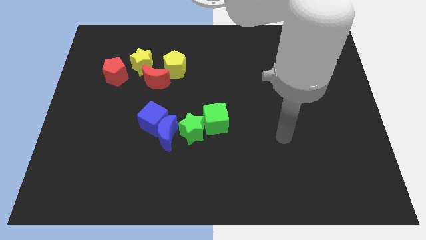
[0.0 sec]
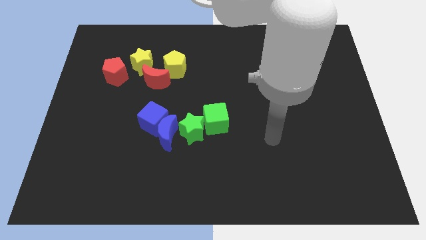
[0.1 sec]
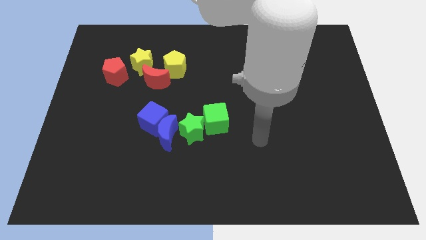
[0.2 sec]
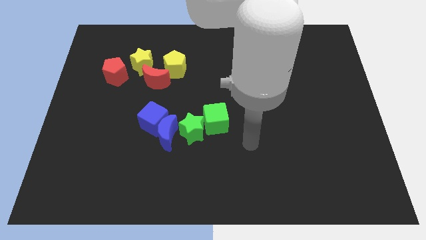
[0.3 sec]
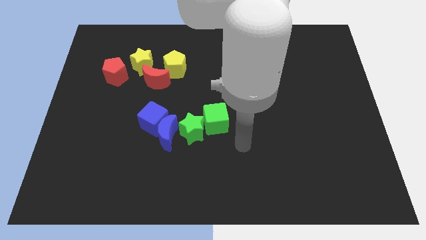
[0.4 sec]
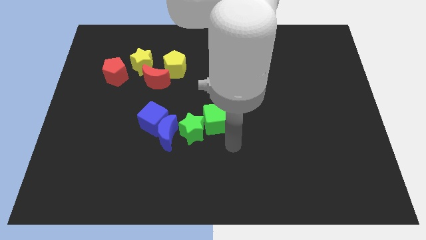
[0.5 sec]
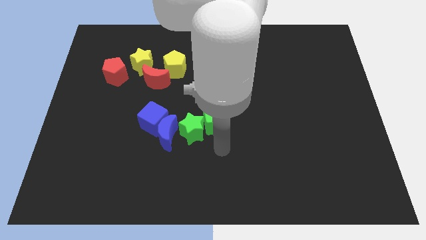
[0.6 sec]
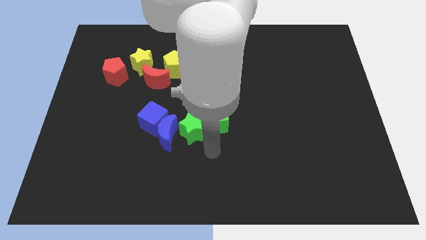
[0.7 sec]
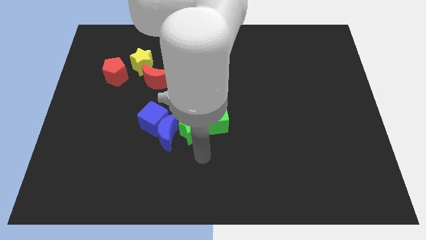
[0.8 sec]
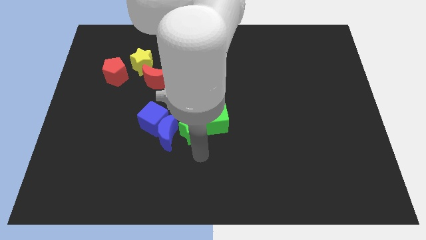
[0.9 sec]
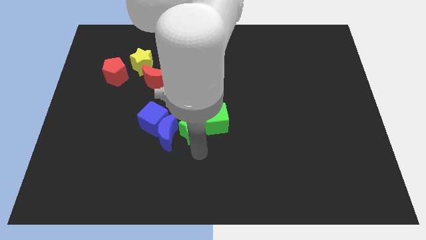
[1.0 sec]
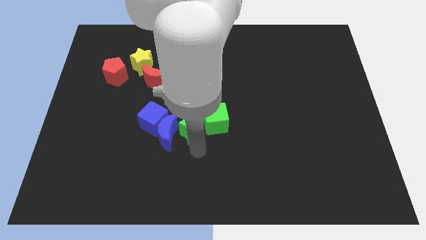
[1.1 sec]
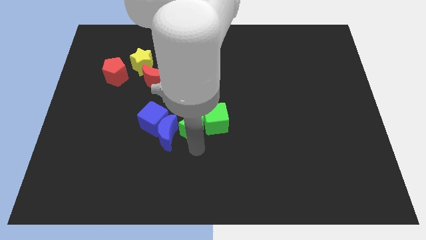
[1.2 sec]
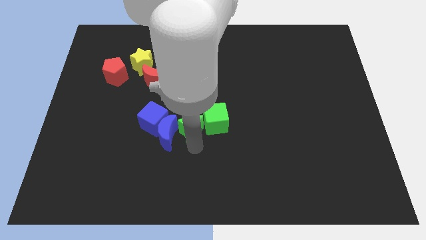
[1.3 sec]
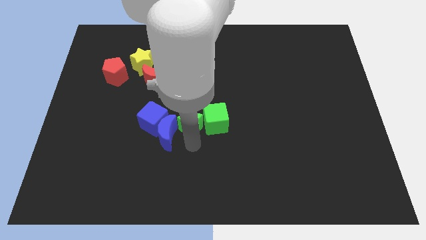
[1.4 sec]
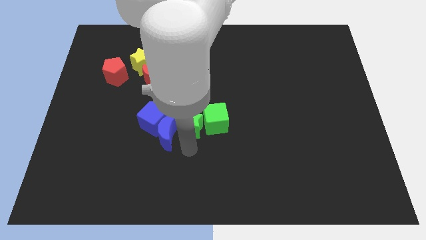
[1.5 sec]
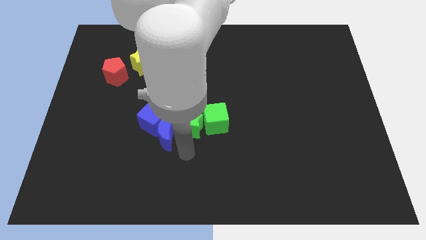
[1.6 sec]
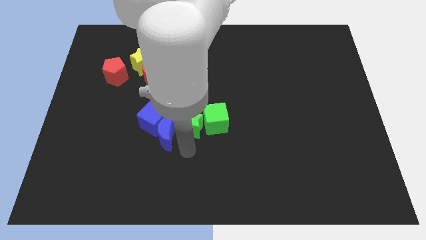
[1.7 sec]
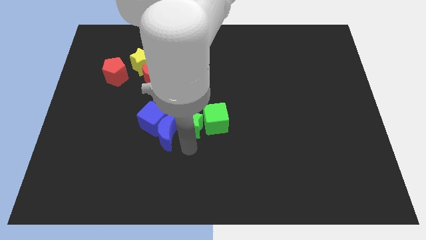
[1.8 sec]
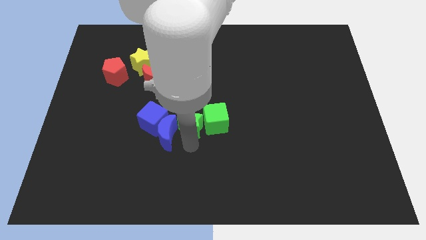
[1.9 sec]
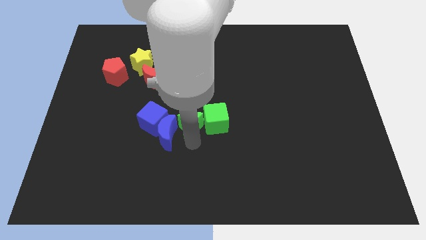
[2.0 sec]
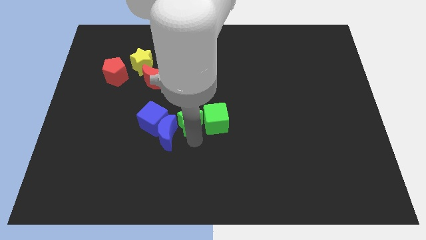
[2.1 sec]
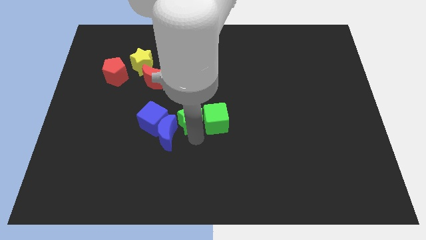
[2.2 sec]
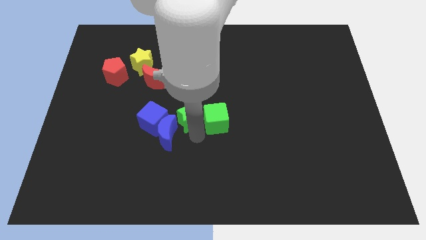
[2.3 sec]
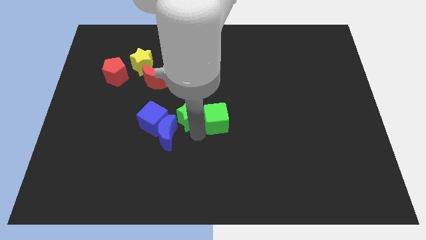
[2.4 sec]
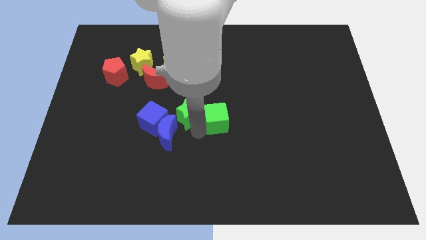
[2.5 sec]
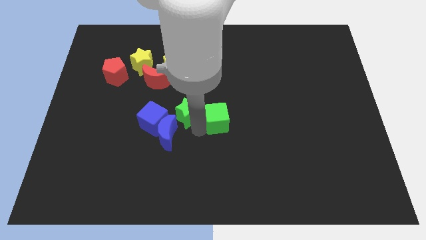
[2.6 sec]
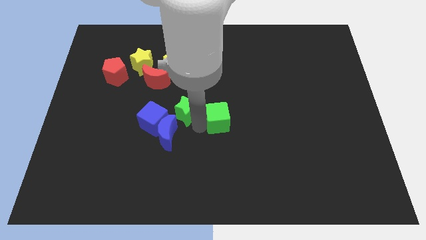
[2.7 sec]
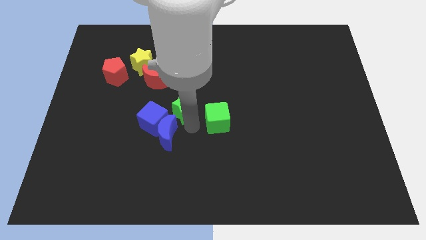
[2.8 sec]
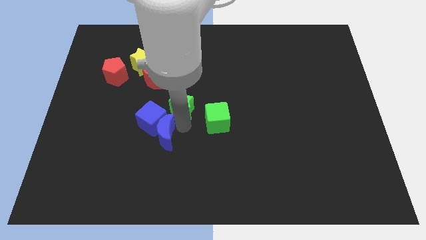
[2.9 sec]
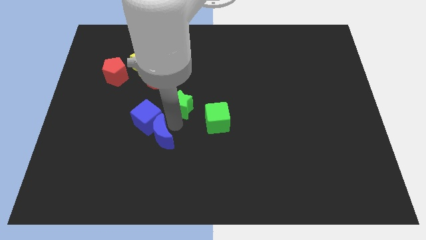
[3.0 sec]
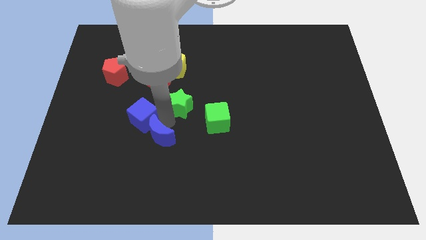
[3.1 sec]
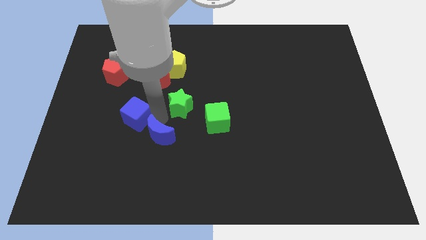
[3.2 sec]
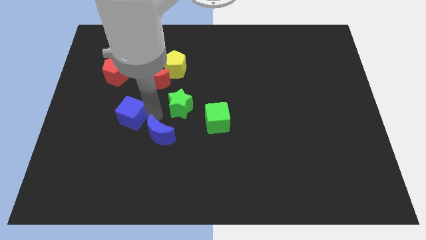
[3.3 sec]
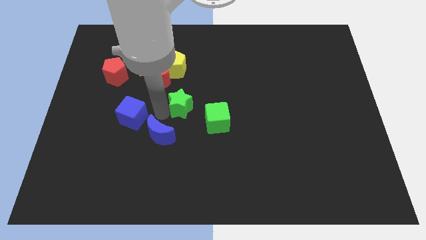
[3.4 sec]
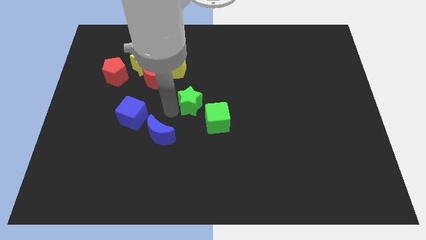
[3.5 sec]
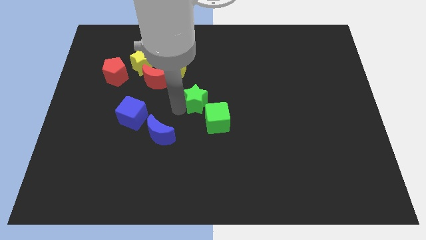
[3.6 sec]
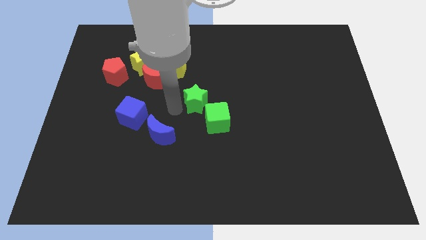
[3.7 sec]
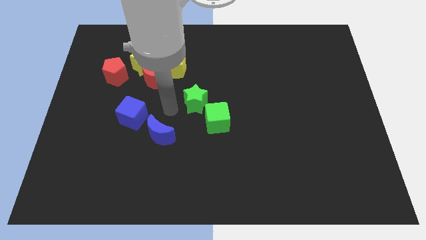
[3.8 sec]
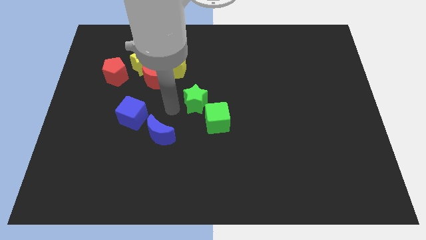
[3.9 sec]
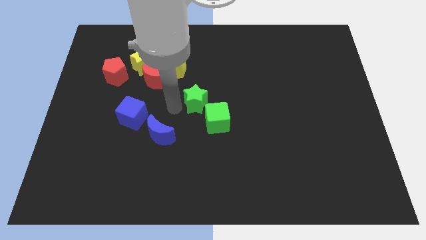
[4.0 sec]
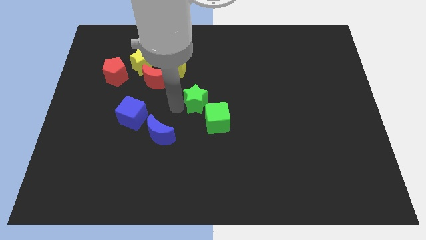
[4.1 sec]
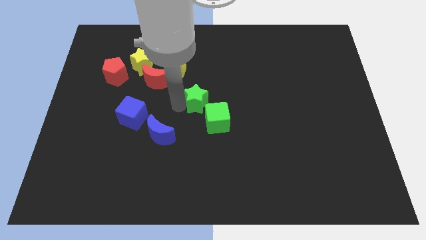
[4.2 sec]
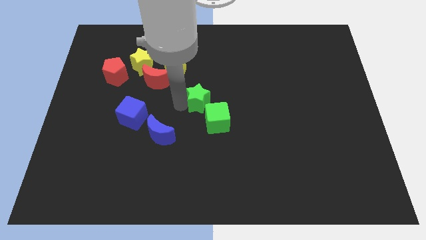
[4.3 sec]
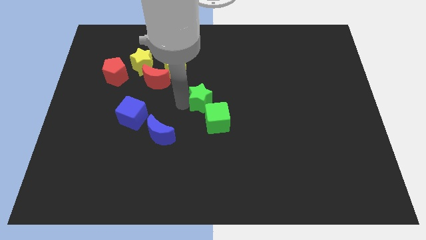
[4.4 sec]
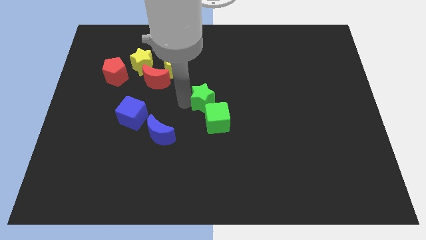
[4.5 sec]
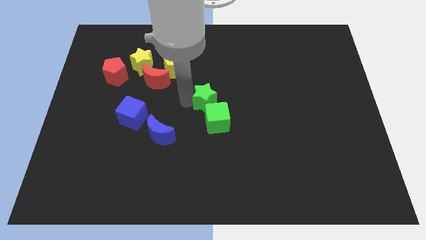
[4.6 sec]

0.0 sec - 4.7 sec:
move the green star a little bit up and then right

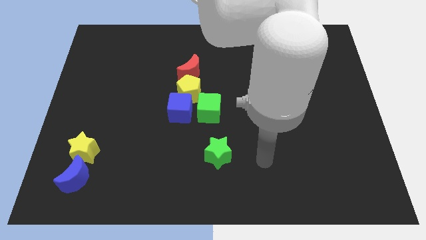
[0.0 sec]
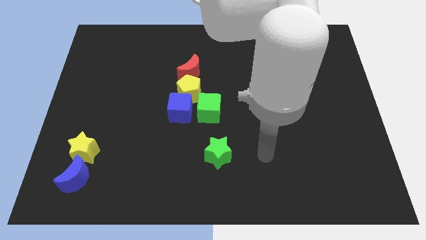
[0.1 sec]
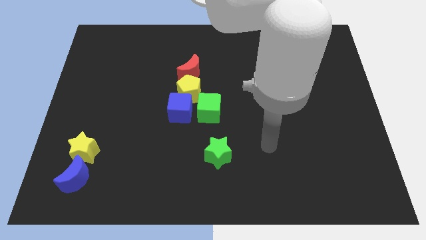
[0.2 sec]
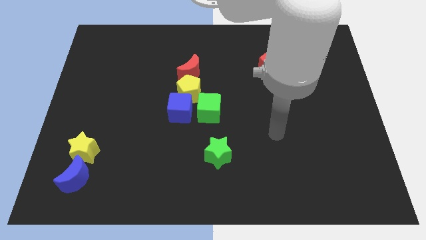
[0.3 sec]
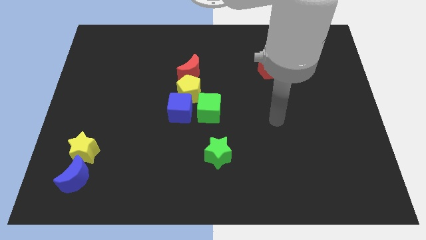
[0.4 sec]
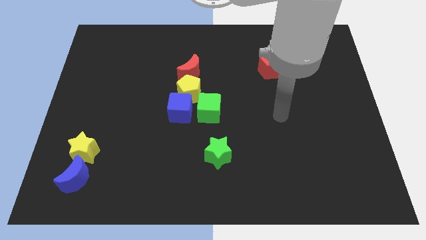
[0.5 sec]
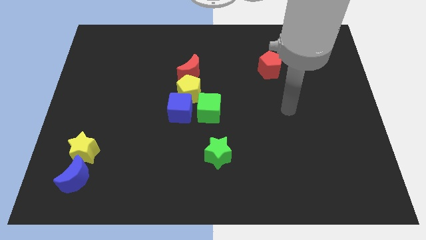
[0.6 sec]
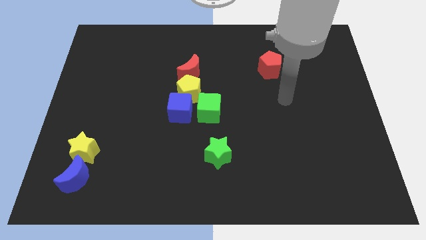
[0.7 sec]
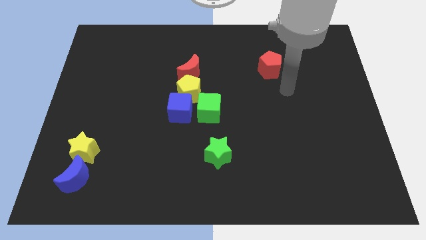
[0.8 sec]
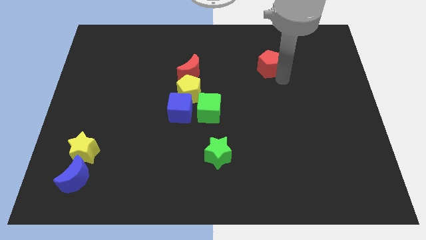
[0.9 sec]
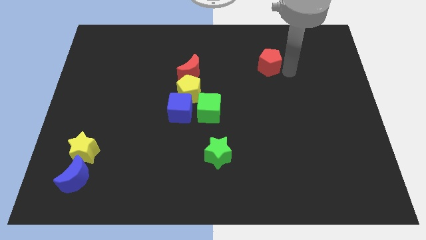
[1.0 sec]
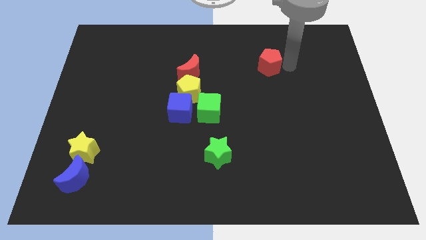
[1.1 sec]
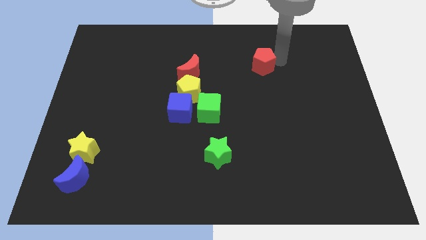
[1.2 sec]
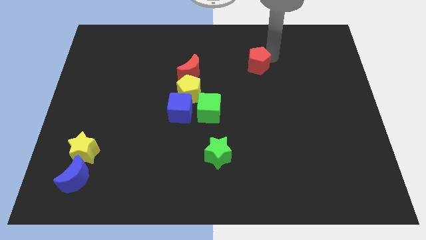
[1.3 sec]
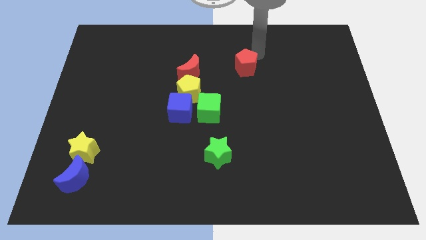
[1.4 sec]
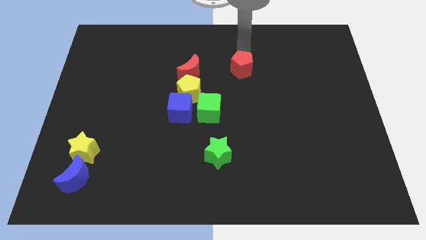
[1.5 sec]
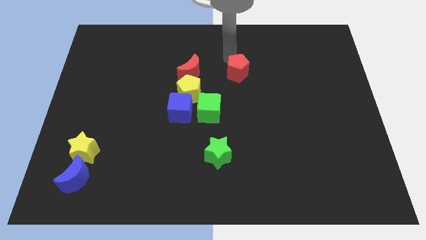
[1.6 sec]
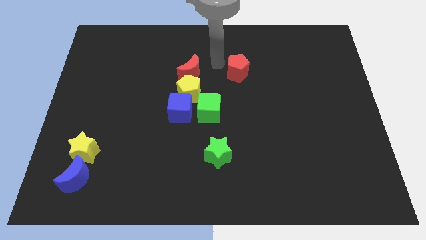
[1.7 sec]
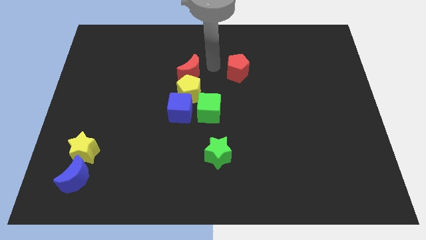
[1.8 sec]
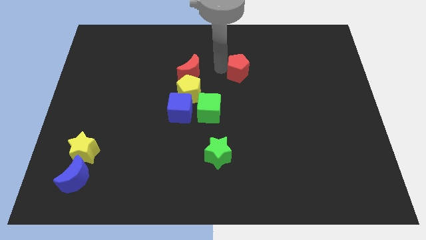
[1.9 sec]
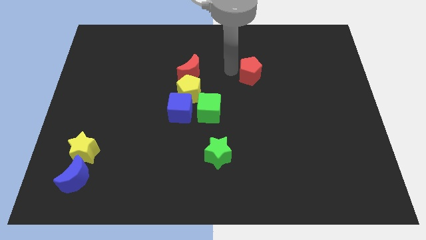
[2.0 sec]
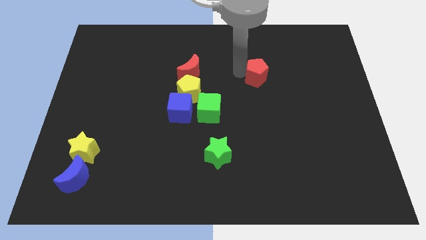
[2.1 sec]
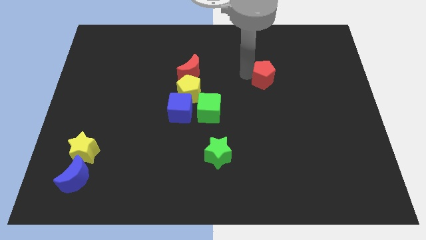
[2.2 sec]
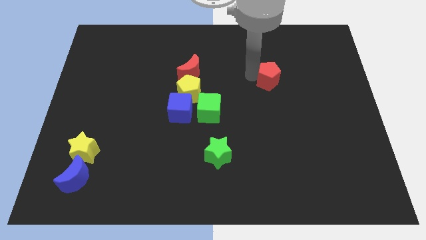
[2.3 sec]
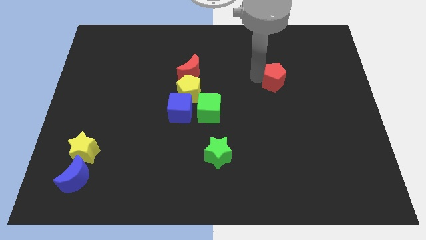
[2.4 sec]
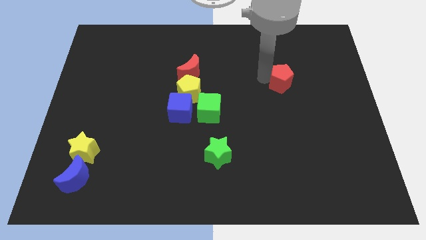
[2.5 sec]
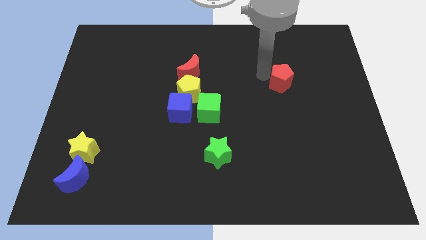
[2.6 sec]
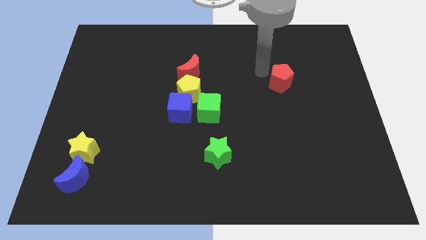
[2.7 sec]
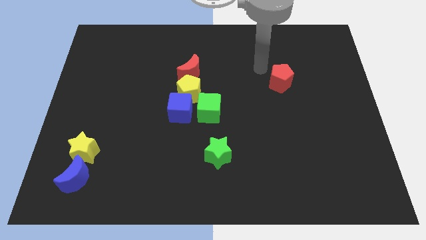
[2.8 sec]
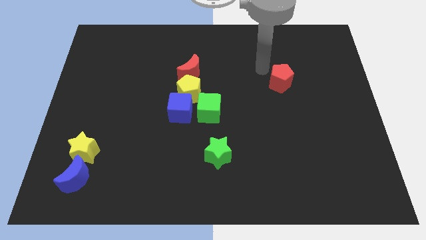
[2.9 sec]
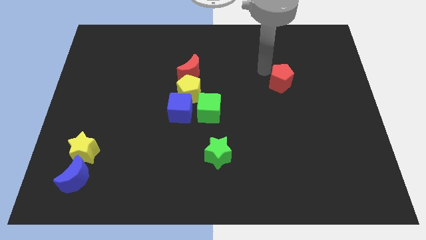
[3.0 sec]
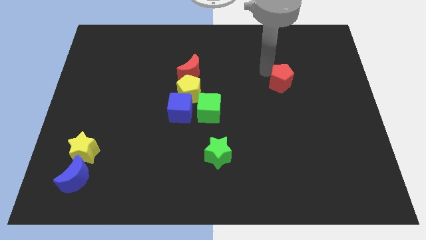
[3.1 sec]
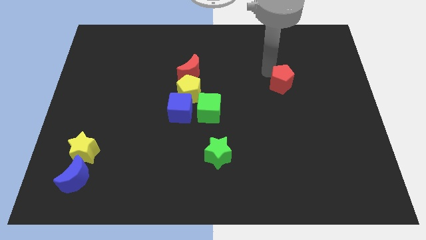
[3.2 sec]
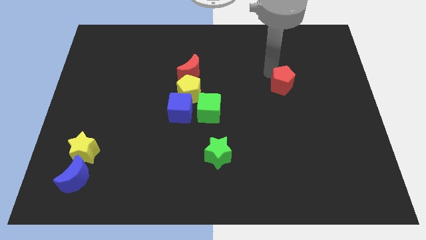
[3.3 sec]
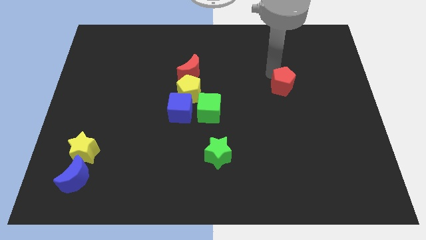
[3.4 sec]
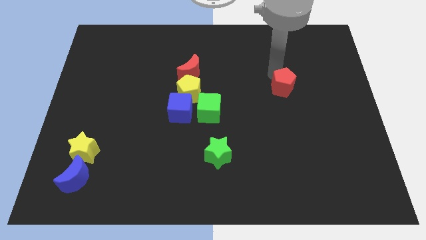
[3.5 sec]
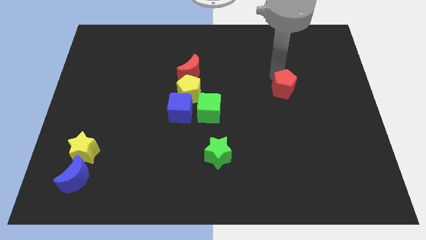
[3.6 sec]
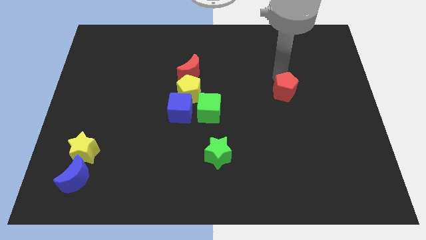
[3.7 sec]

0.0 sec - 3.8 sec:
slightly move the red pentagon diagonally down and right
